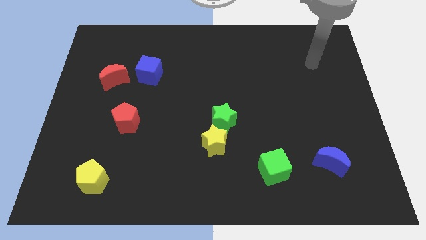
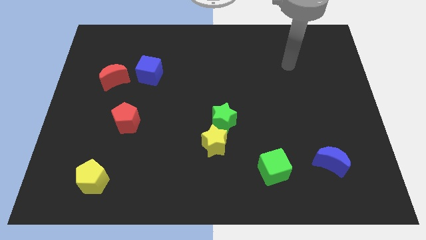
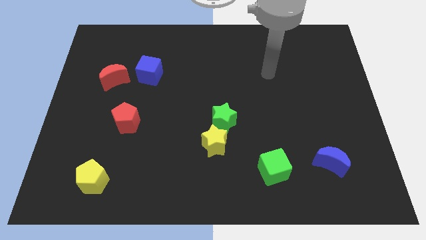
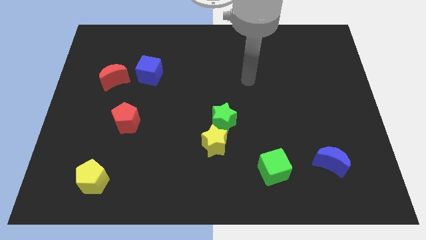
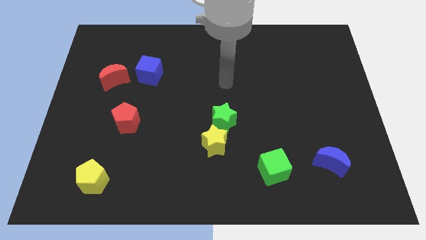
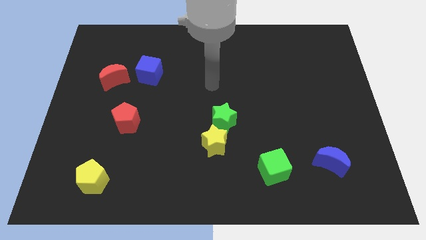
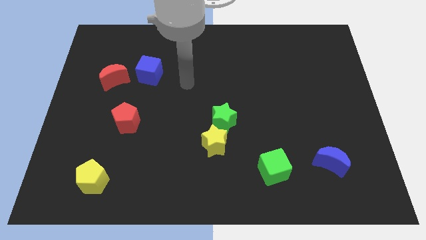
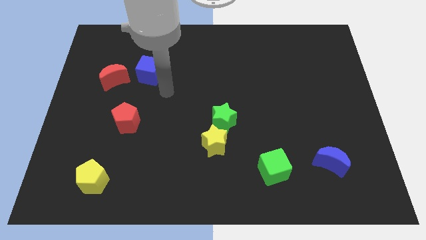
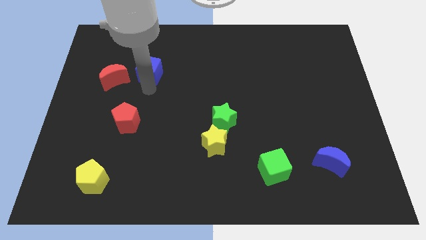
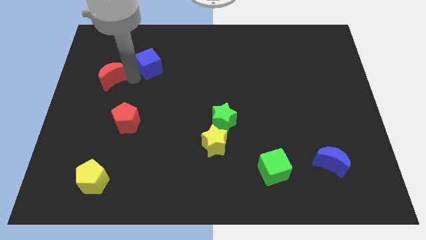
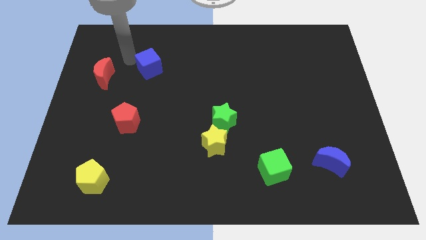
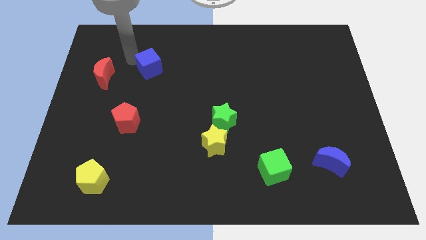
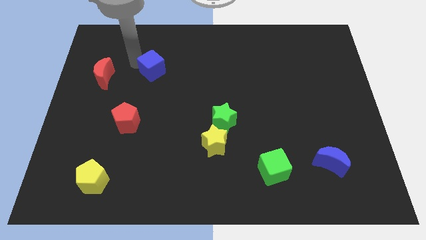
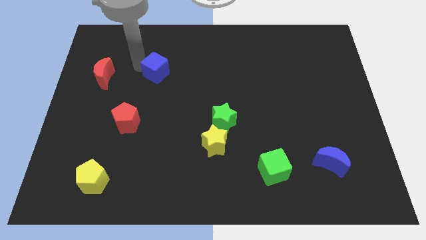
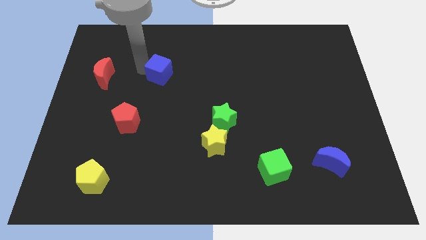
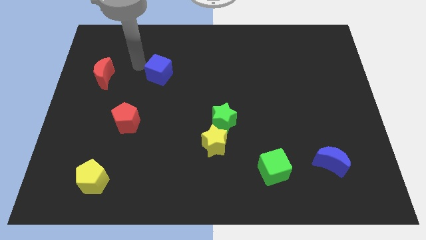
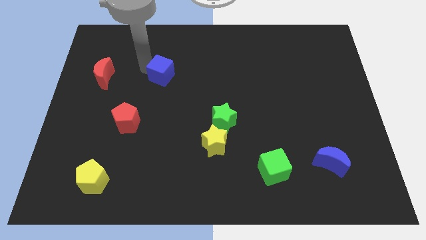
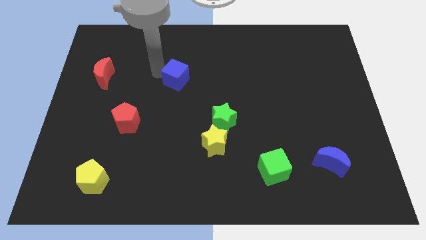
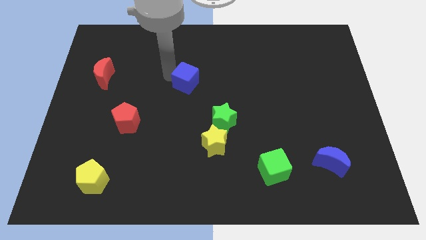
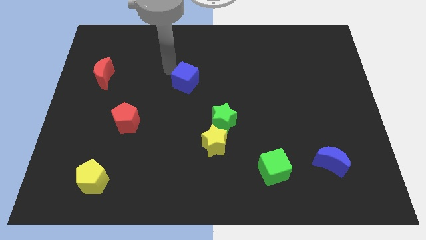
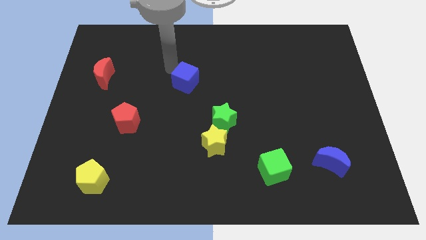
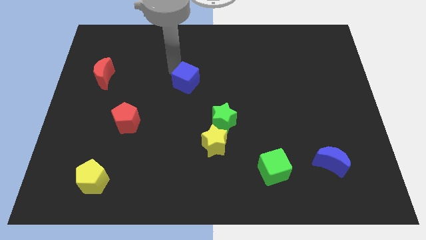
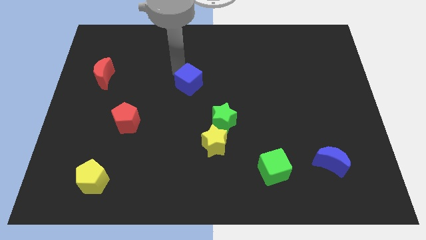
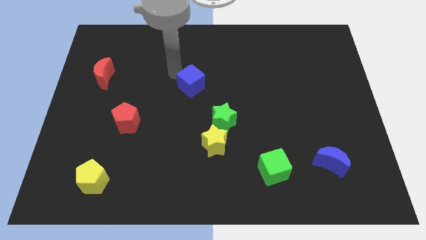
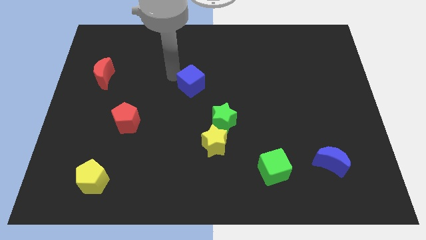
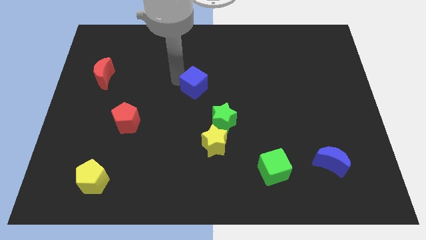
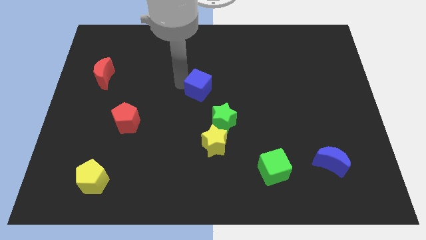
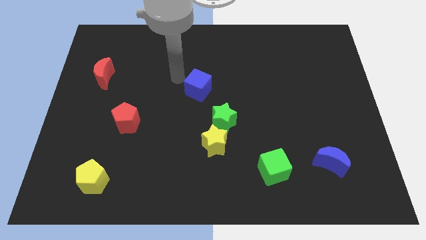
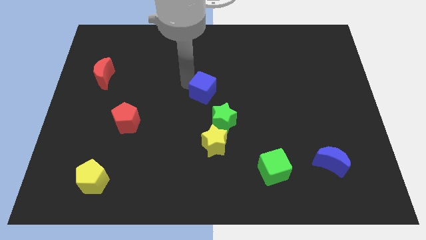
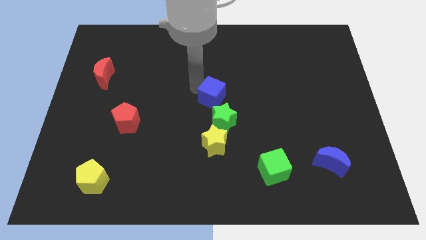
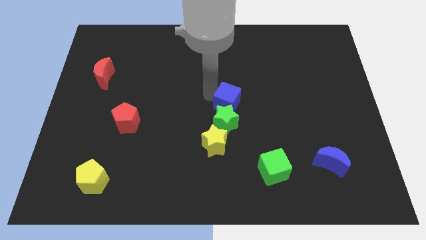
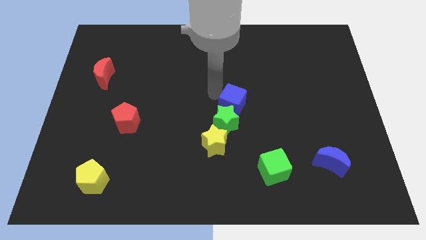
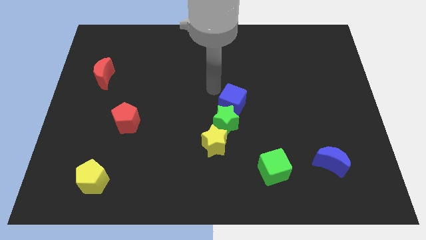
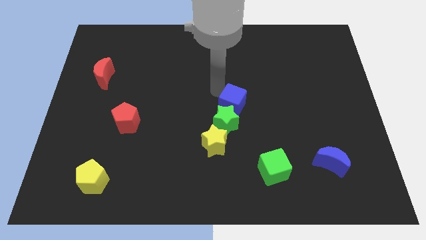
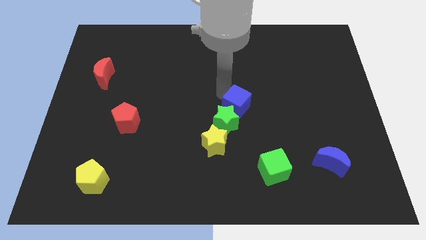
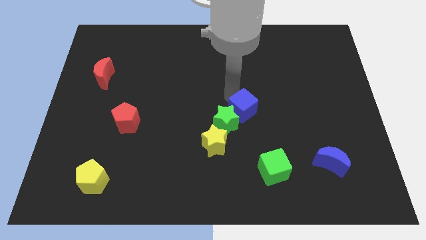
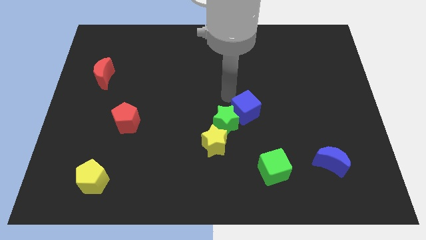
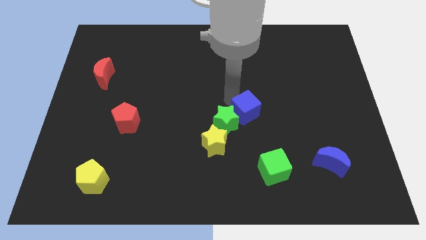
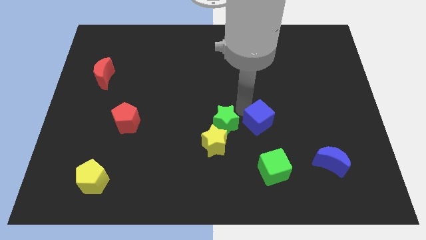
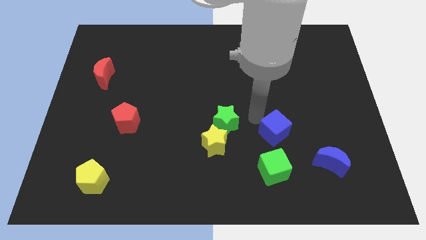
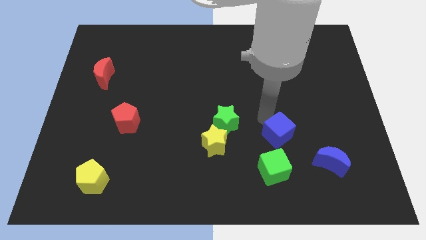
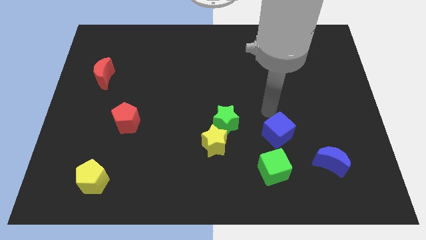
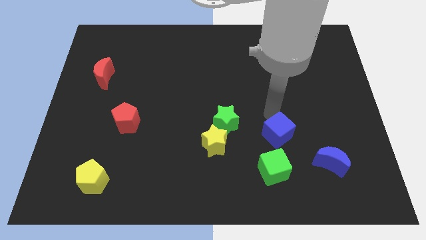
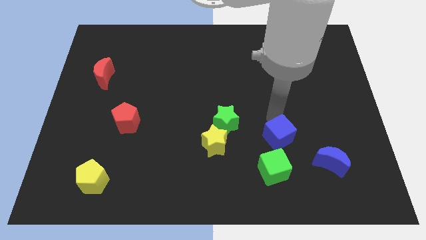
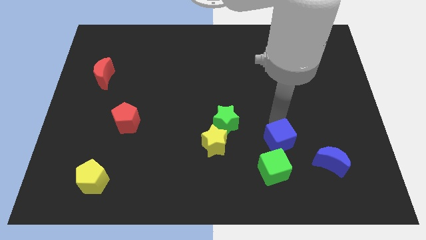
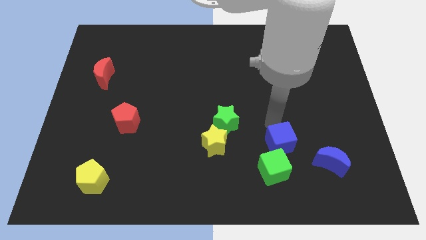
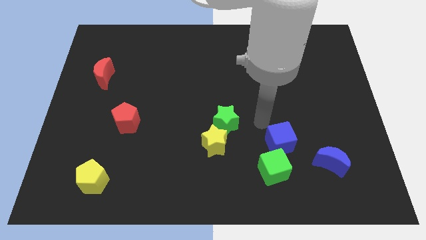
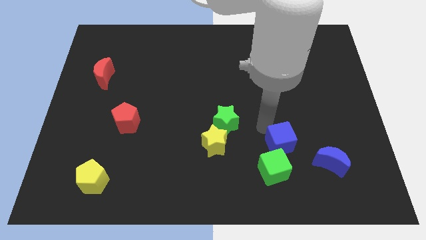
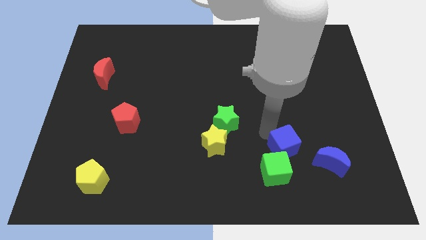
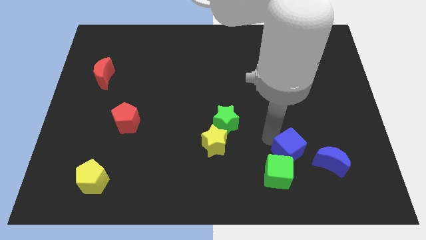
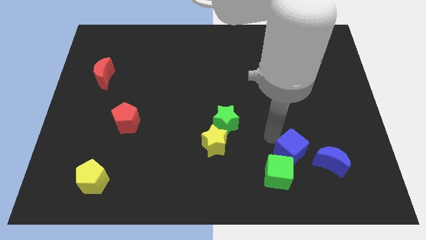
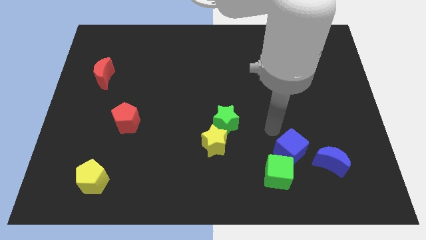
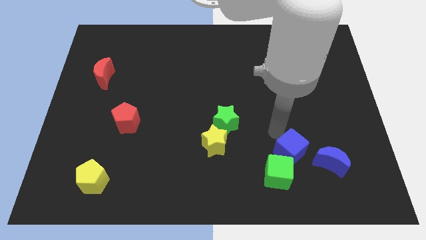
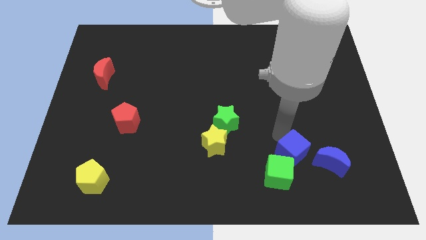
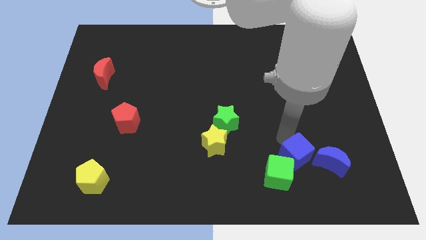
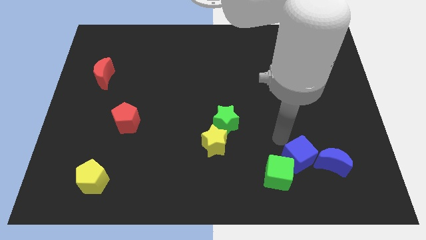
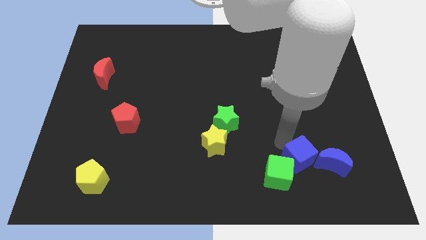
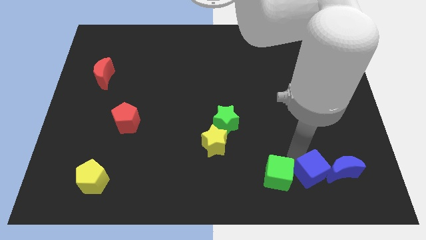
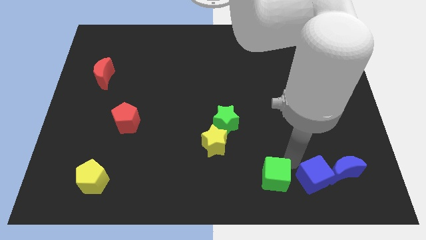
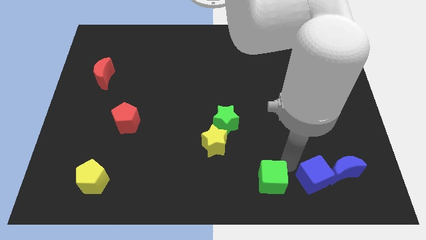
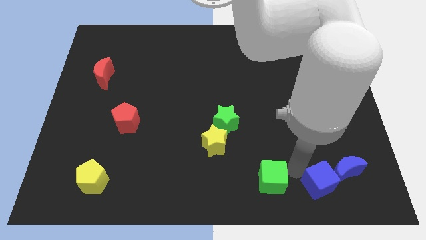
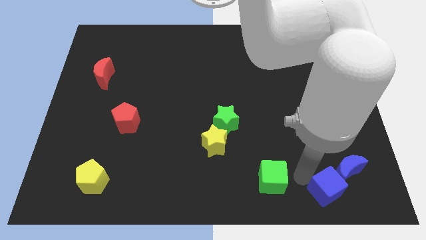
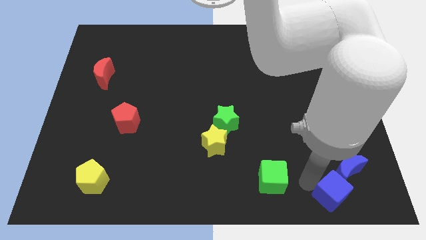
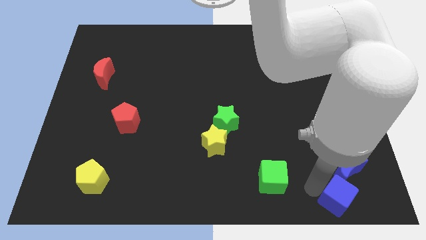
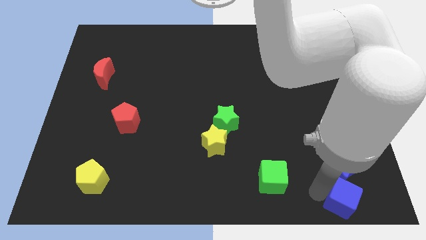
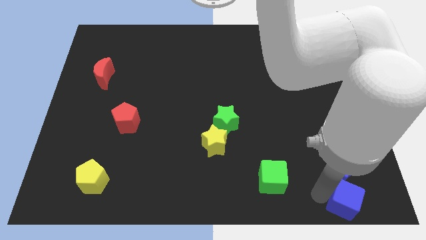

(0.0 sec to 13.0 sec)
move the blue cube to the lower right corner
